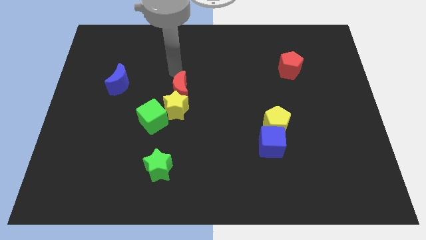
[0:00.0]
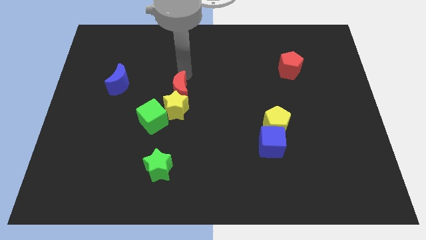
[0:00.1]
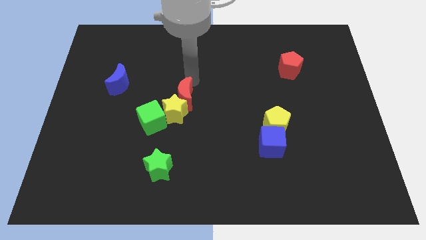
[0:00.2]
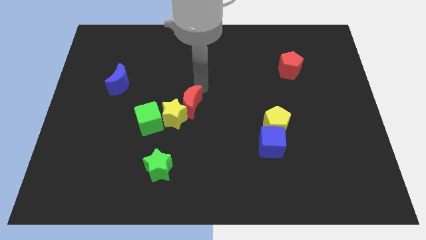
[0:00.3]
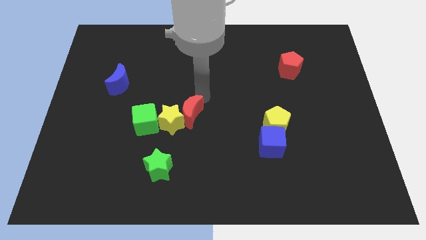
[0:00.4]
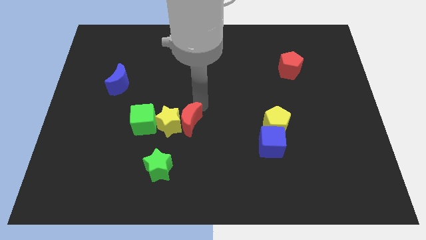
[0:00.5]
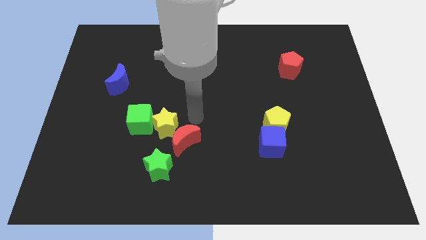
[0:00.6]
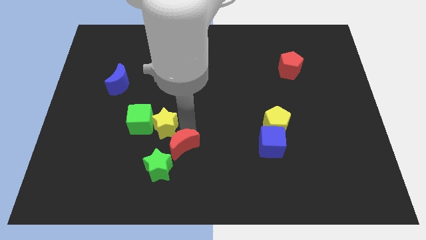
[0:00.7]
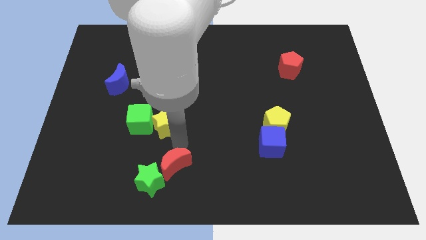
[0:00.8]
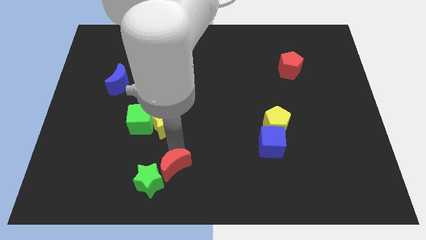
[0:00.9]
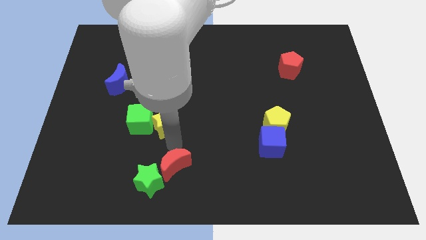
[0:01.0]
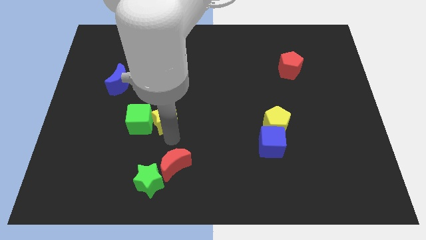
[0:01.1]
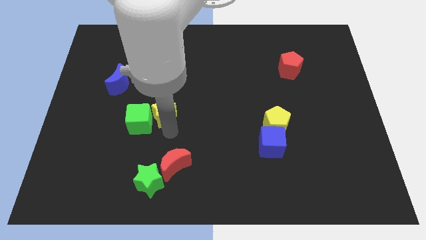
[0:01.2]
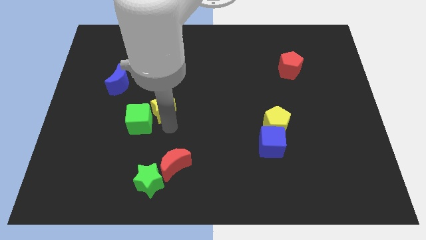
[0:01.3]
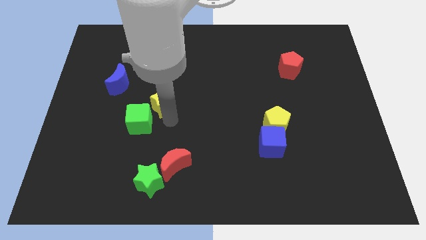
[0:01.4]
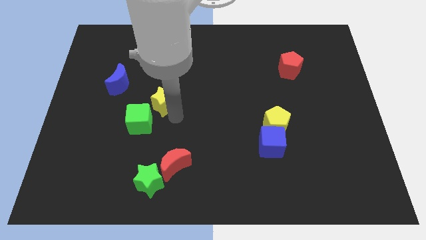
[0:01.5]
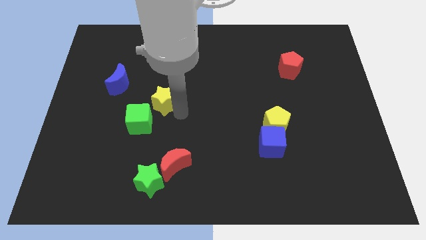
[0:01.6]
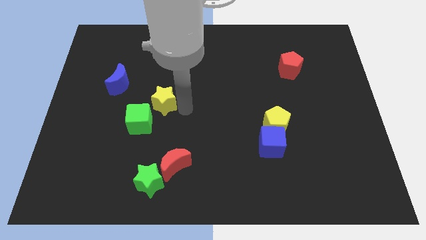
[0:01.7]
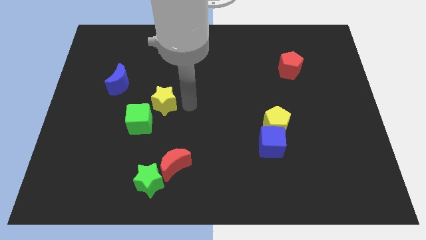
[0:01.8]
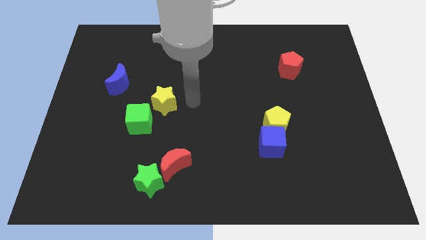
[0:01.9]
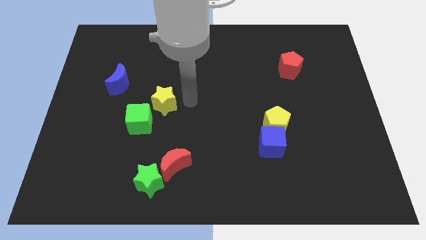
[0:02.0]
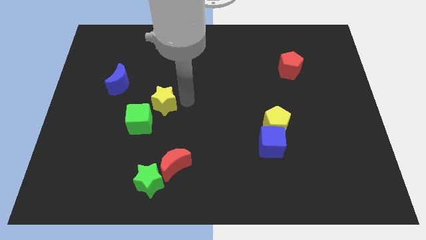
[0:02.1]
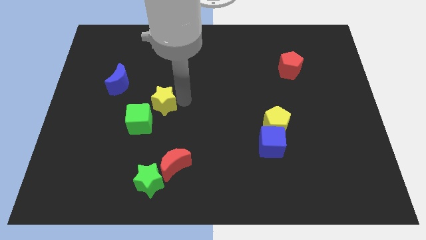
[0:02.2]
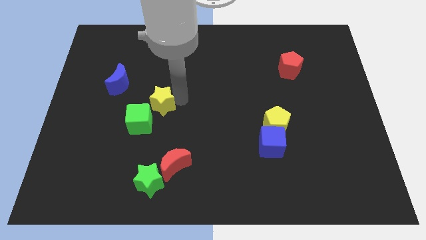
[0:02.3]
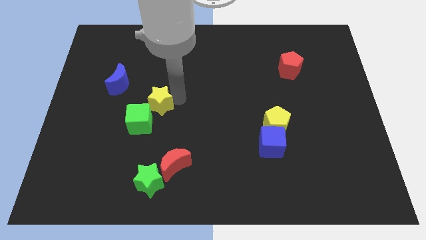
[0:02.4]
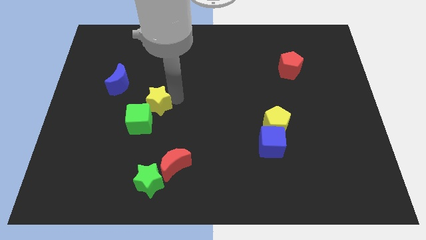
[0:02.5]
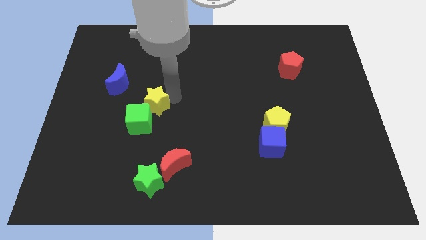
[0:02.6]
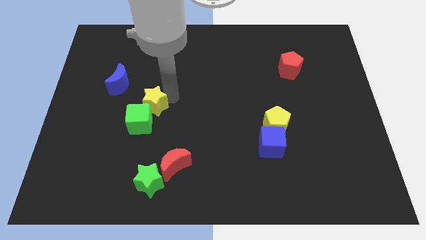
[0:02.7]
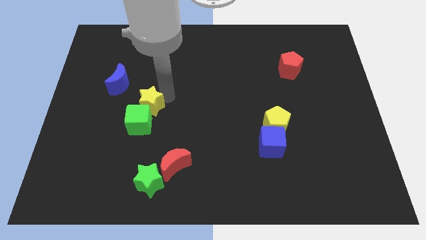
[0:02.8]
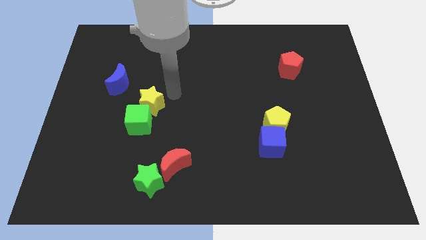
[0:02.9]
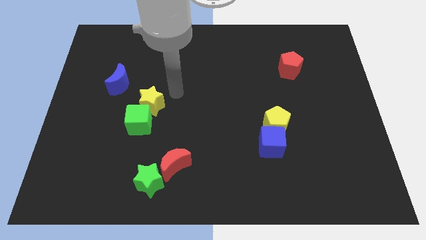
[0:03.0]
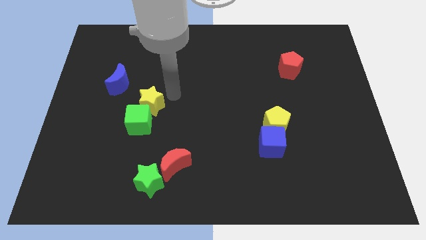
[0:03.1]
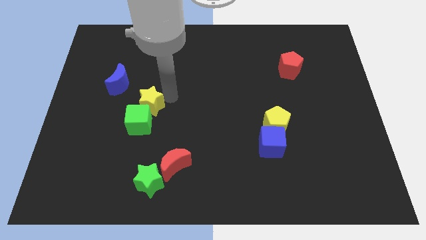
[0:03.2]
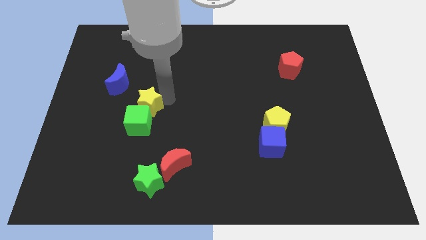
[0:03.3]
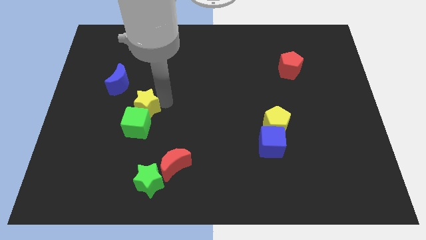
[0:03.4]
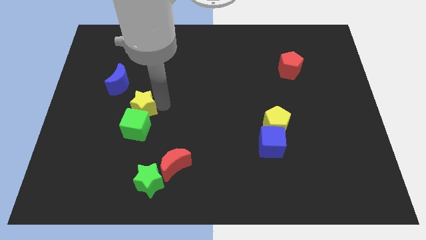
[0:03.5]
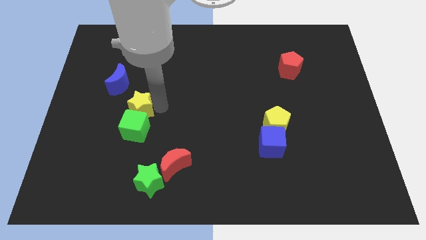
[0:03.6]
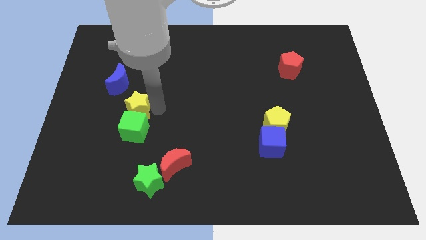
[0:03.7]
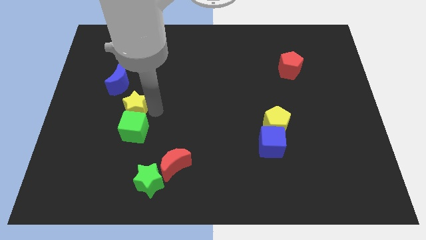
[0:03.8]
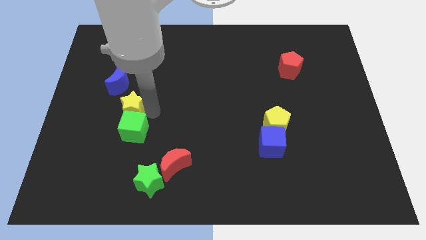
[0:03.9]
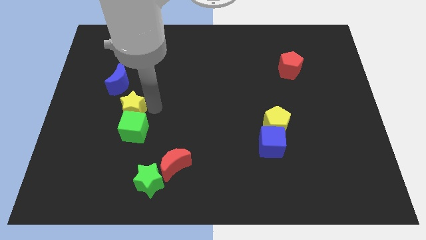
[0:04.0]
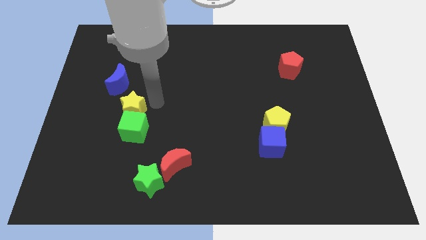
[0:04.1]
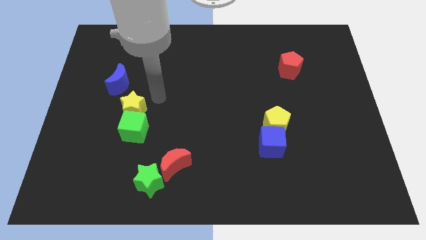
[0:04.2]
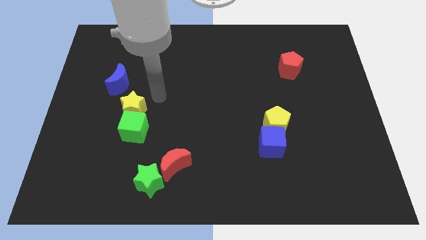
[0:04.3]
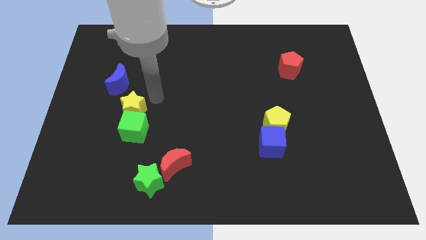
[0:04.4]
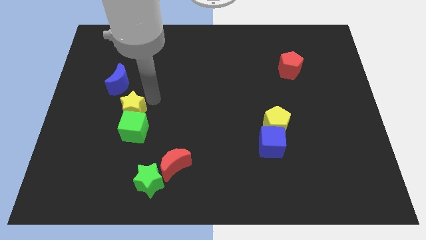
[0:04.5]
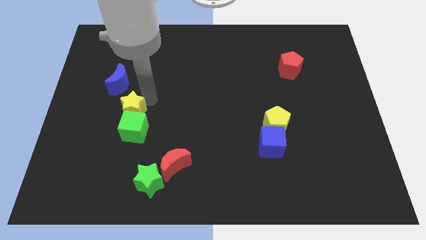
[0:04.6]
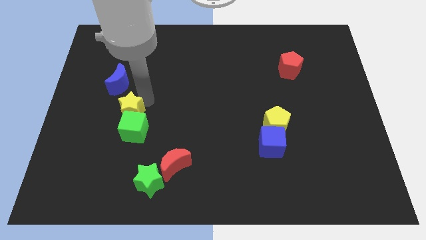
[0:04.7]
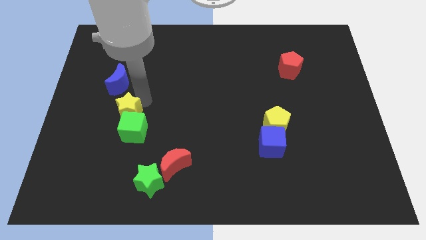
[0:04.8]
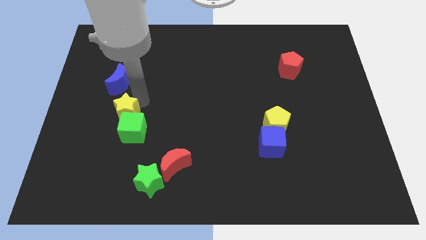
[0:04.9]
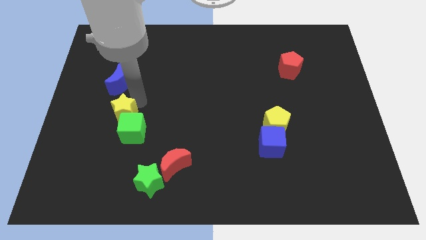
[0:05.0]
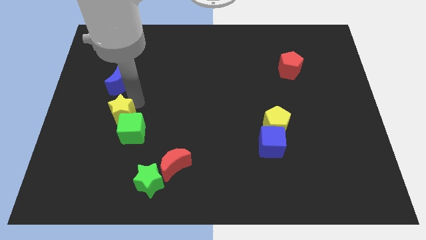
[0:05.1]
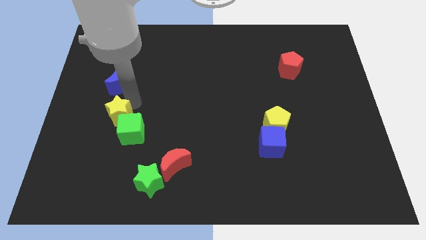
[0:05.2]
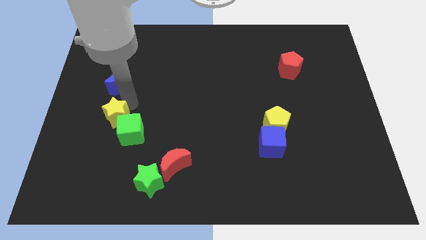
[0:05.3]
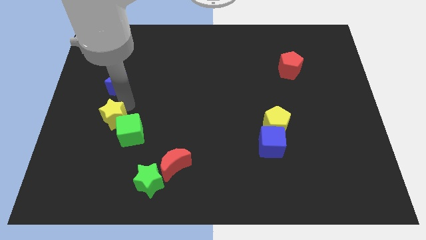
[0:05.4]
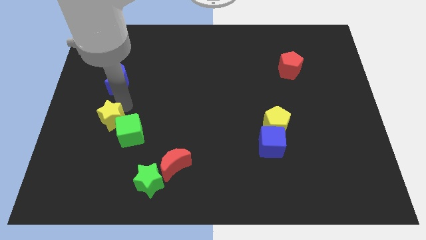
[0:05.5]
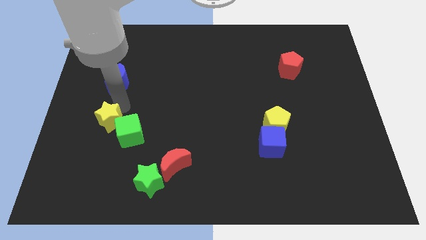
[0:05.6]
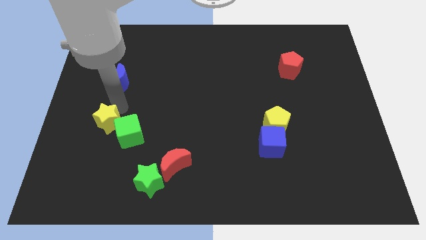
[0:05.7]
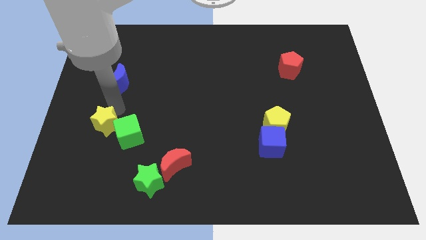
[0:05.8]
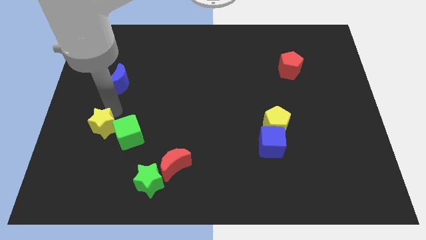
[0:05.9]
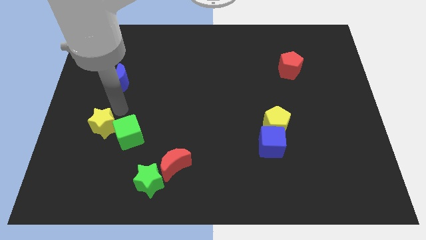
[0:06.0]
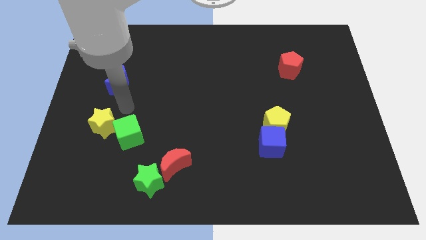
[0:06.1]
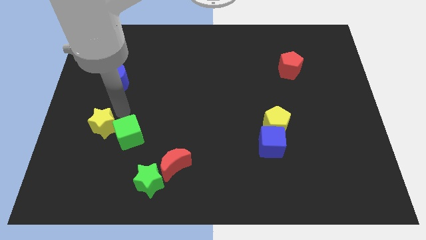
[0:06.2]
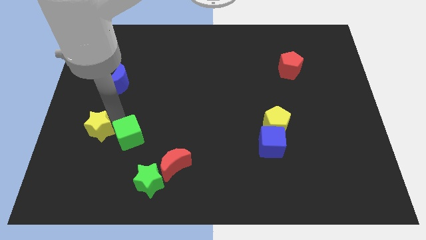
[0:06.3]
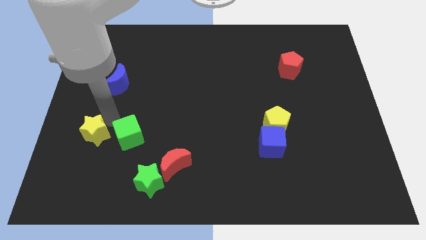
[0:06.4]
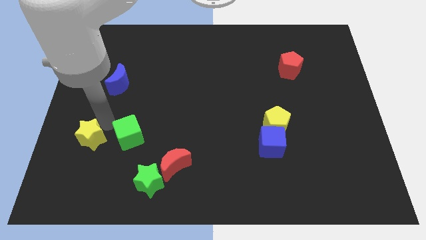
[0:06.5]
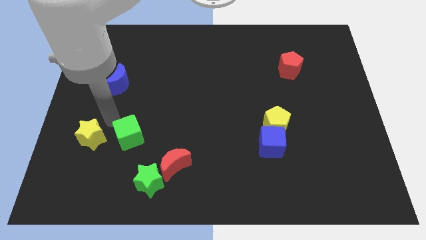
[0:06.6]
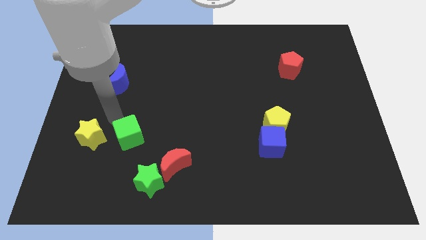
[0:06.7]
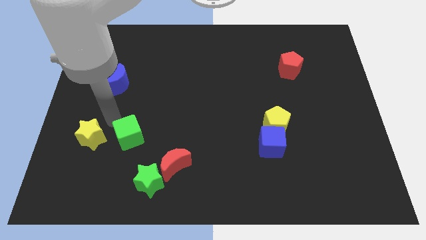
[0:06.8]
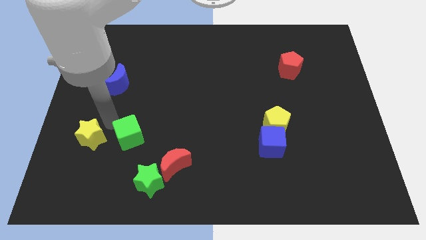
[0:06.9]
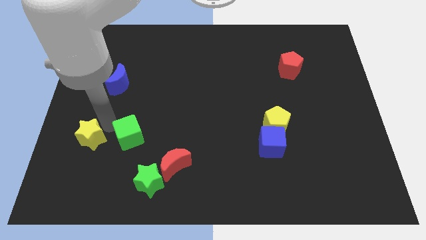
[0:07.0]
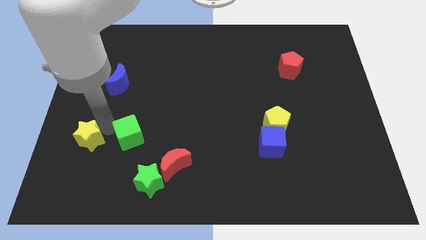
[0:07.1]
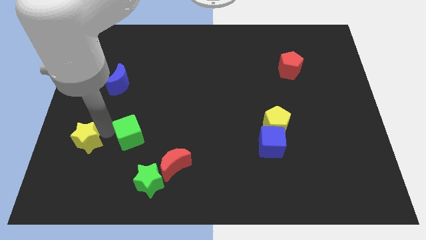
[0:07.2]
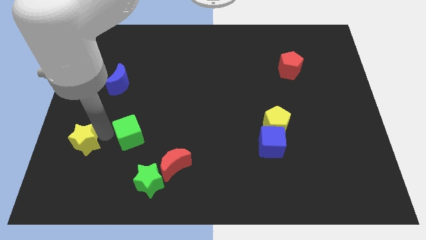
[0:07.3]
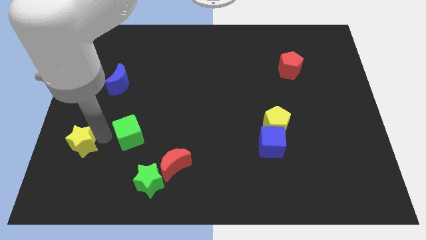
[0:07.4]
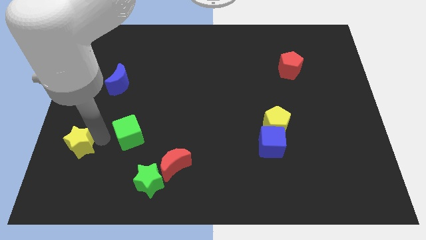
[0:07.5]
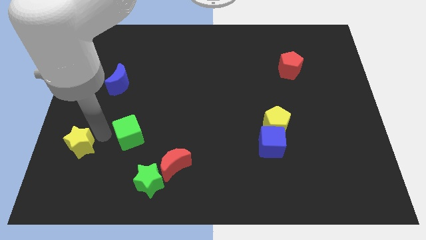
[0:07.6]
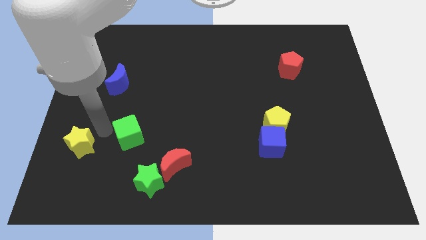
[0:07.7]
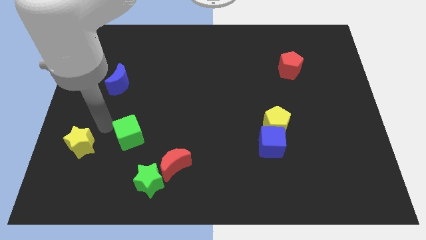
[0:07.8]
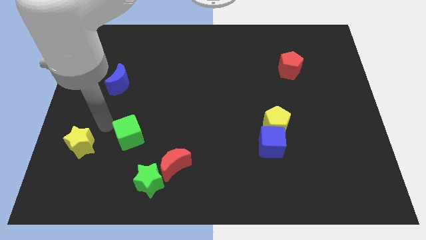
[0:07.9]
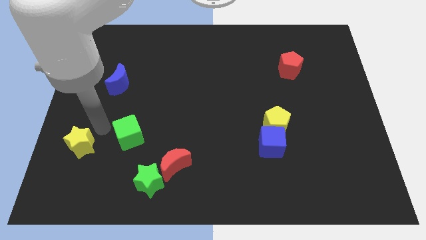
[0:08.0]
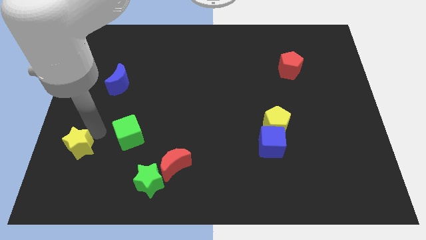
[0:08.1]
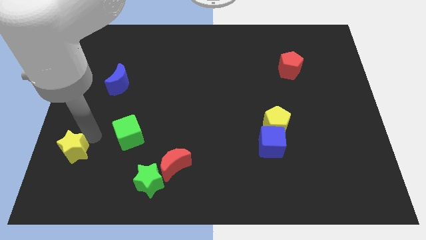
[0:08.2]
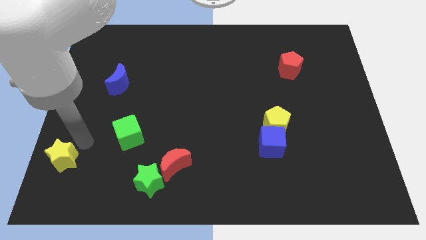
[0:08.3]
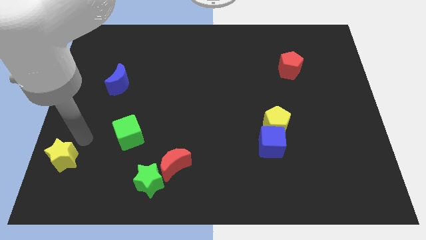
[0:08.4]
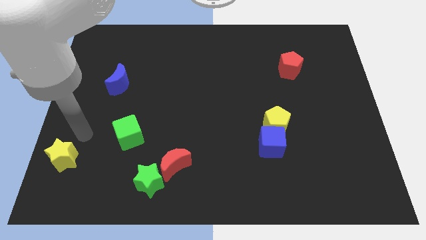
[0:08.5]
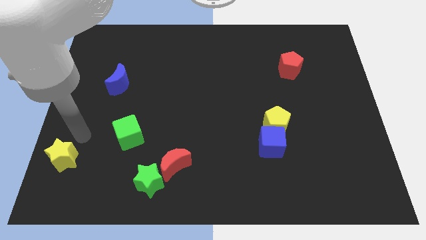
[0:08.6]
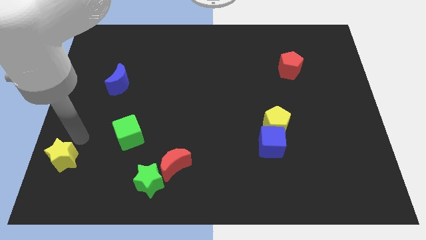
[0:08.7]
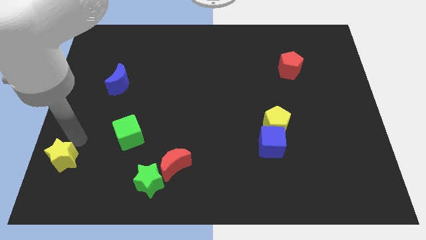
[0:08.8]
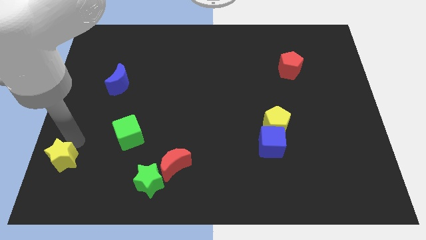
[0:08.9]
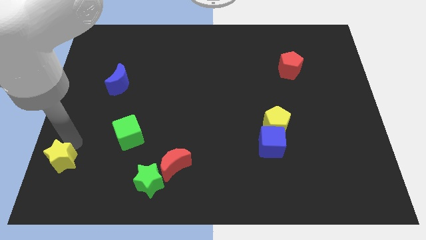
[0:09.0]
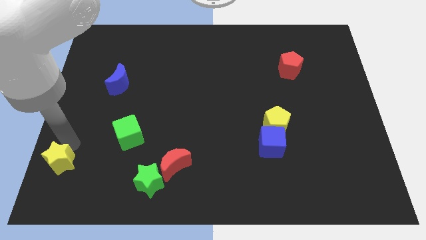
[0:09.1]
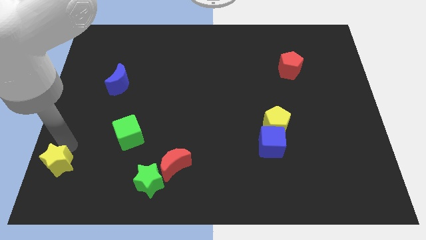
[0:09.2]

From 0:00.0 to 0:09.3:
slide the yellow star to the bottom left of the board
